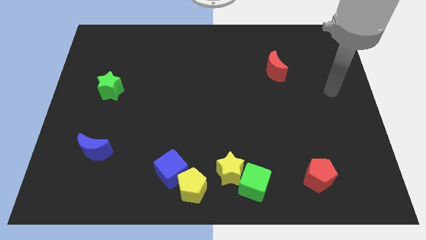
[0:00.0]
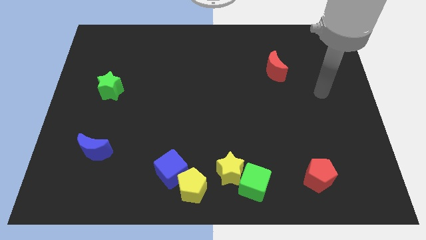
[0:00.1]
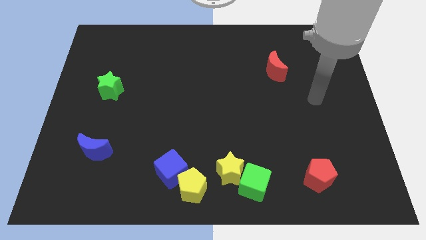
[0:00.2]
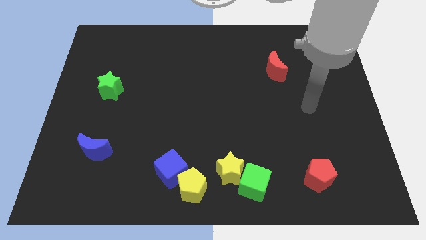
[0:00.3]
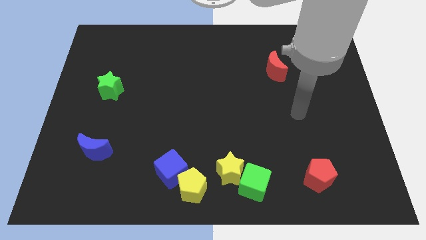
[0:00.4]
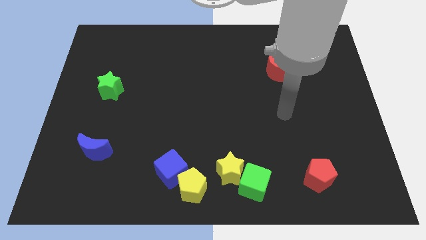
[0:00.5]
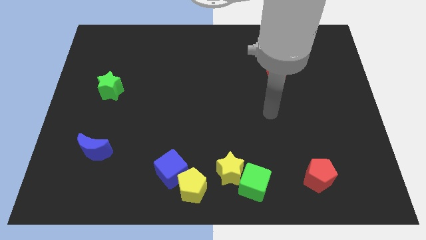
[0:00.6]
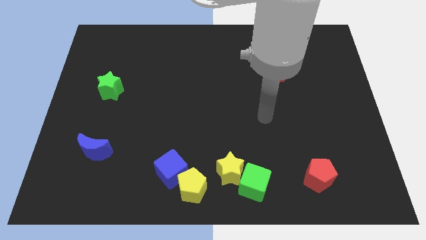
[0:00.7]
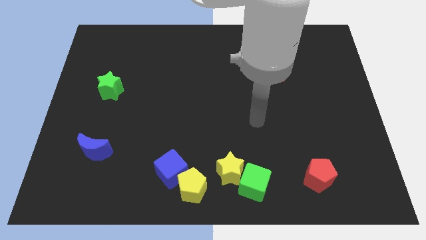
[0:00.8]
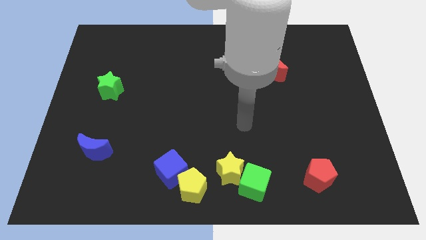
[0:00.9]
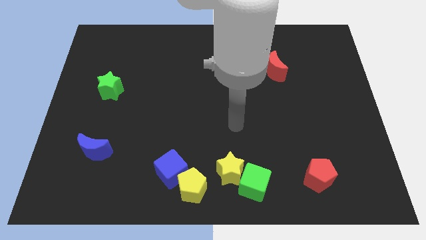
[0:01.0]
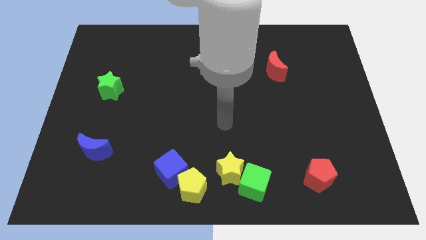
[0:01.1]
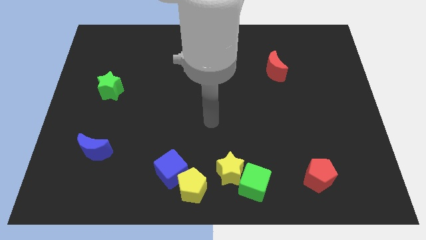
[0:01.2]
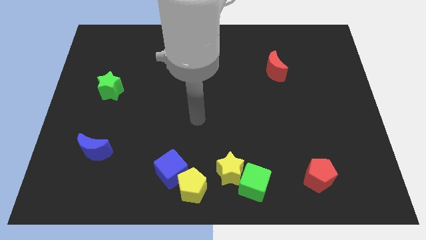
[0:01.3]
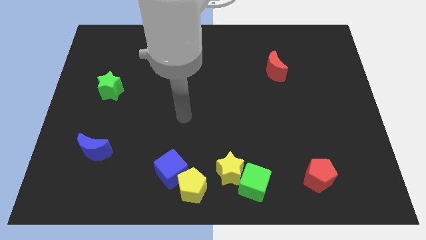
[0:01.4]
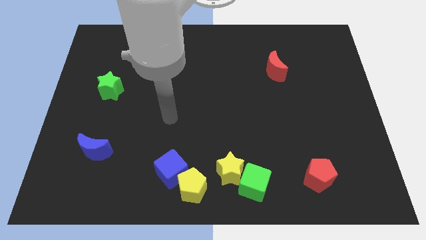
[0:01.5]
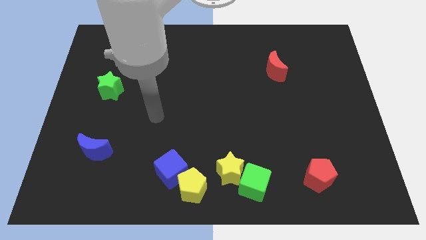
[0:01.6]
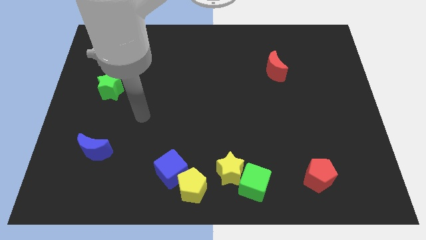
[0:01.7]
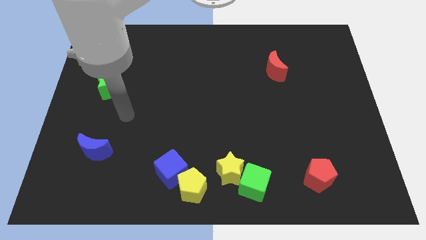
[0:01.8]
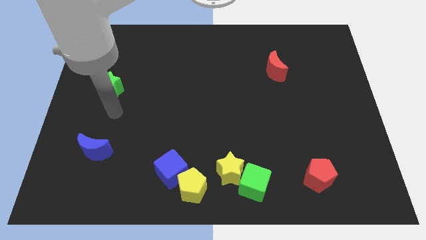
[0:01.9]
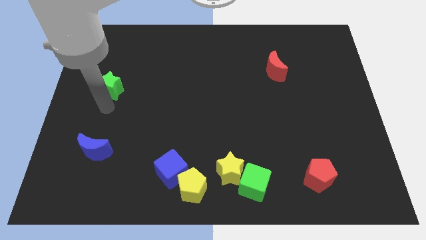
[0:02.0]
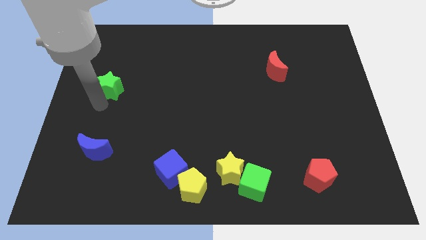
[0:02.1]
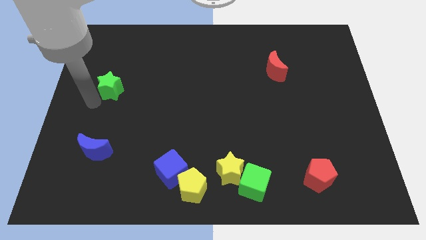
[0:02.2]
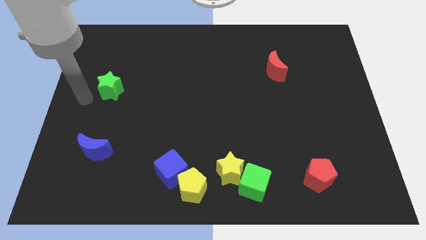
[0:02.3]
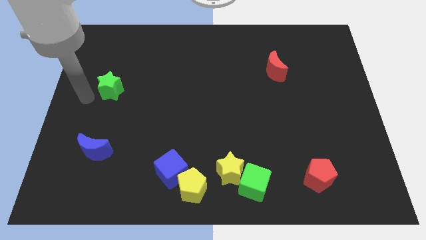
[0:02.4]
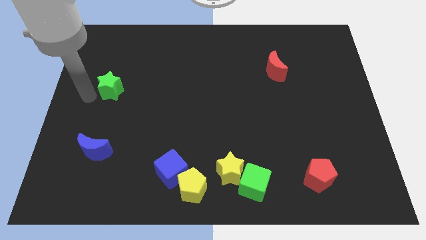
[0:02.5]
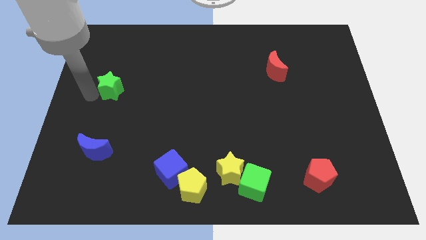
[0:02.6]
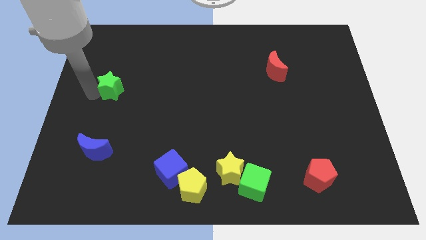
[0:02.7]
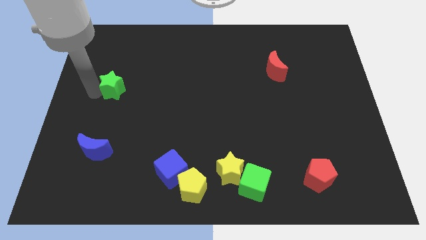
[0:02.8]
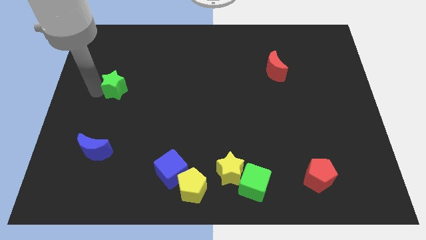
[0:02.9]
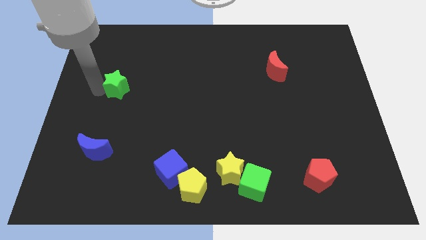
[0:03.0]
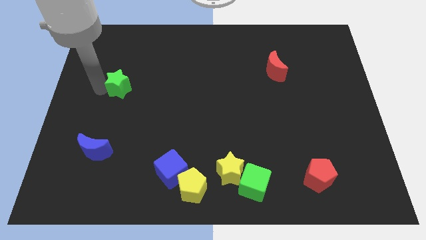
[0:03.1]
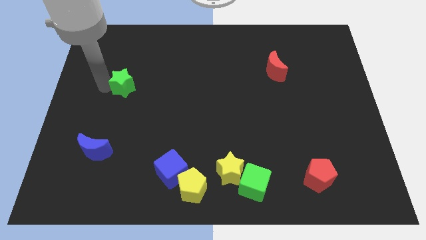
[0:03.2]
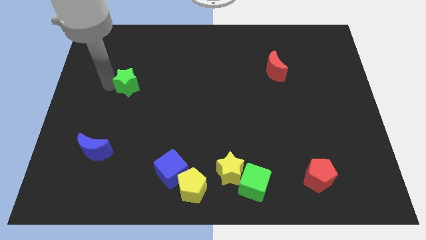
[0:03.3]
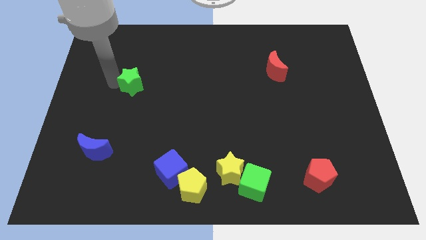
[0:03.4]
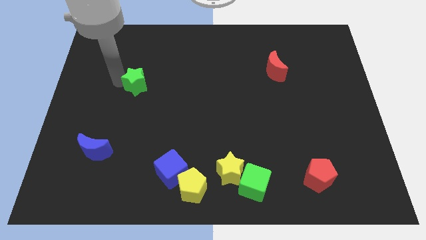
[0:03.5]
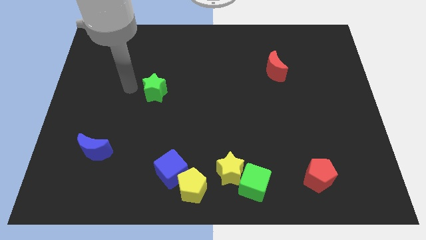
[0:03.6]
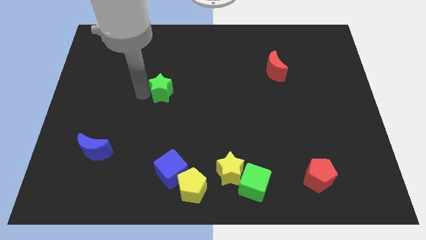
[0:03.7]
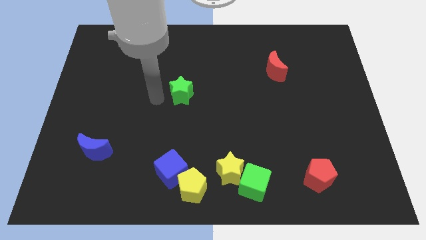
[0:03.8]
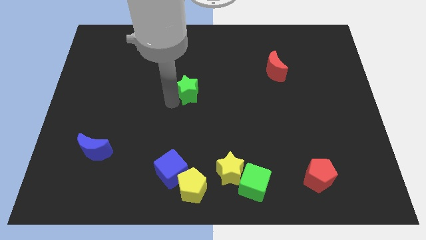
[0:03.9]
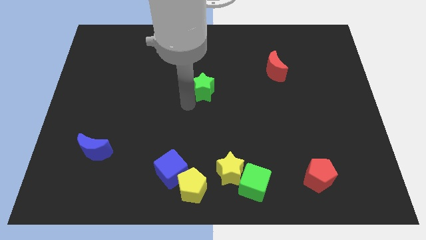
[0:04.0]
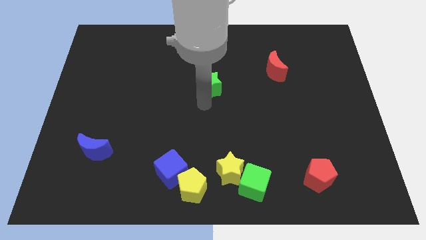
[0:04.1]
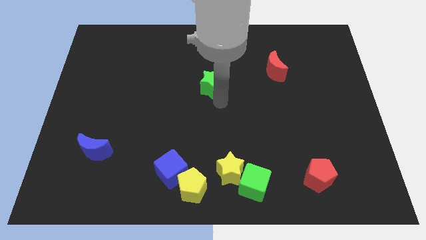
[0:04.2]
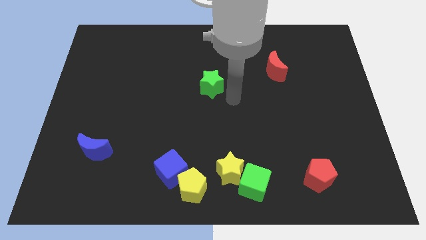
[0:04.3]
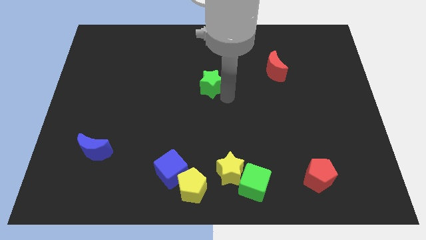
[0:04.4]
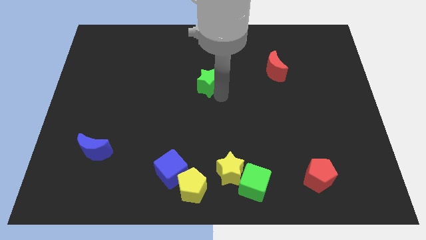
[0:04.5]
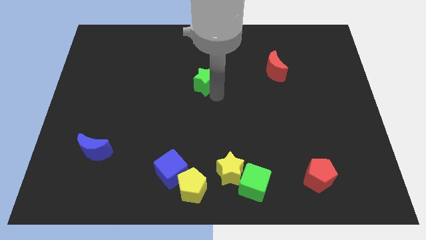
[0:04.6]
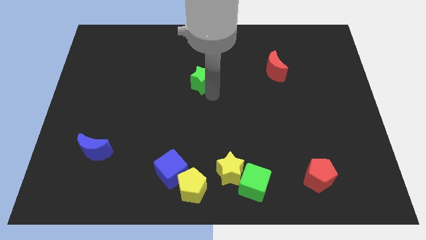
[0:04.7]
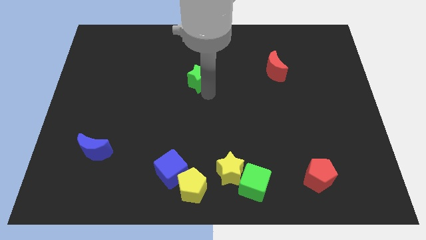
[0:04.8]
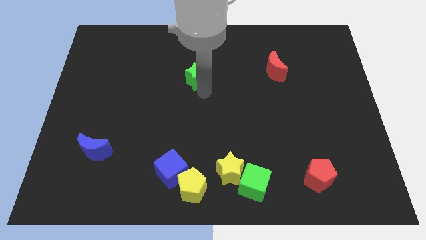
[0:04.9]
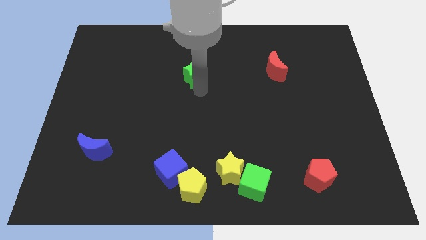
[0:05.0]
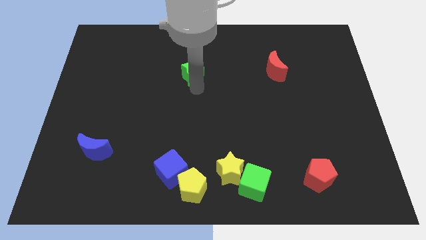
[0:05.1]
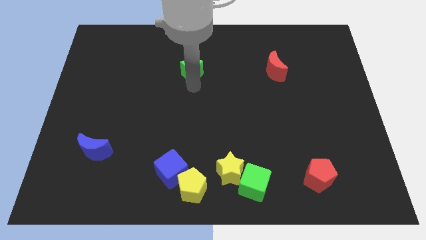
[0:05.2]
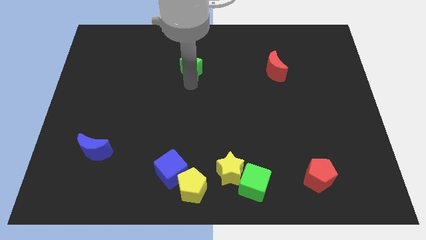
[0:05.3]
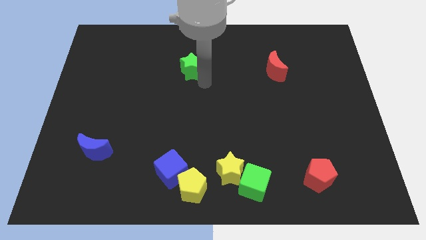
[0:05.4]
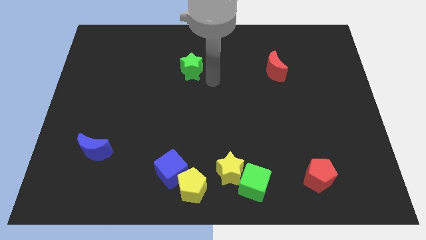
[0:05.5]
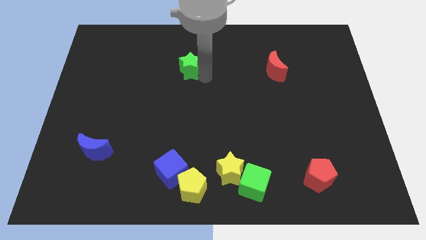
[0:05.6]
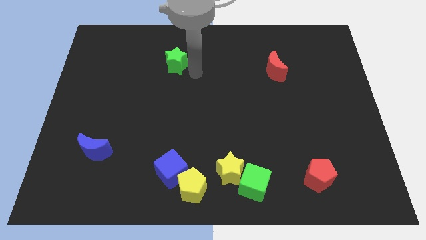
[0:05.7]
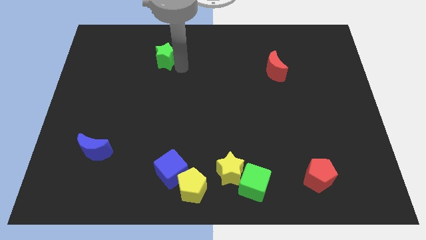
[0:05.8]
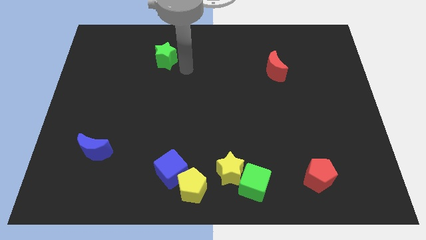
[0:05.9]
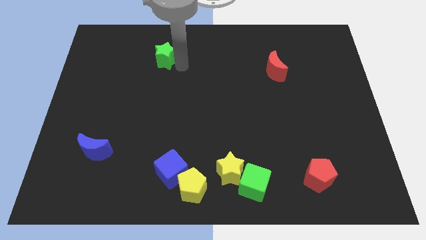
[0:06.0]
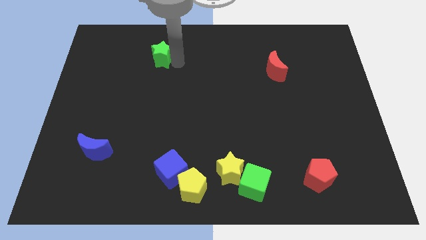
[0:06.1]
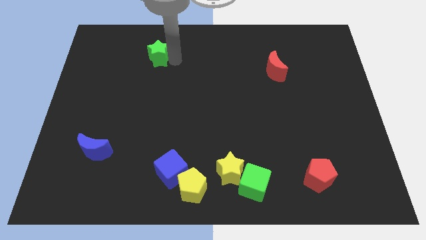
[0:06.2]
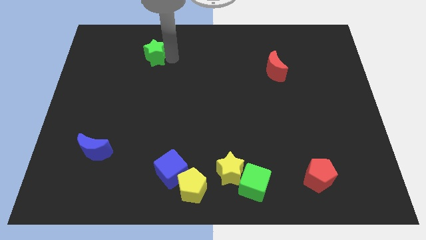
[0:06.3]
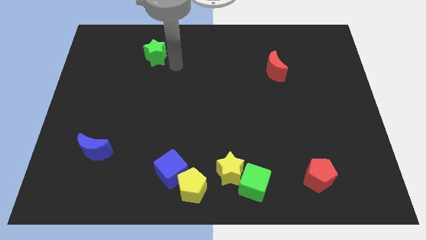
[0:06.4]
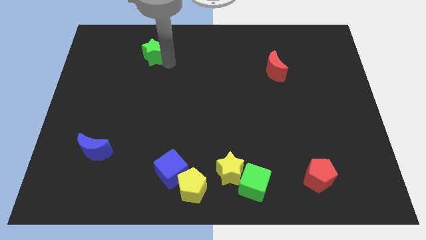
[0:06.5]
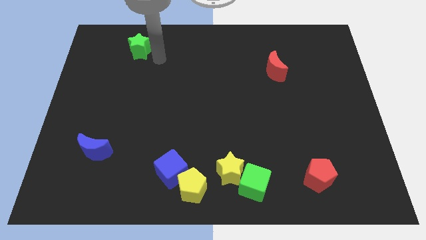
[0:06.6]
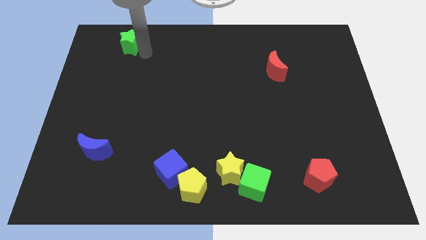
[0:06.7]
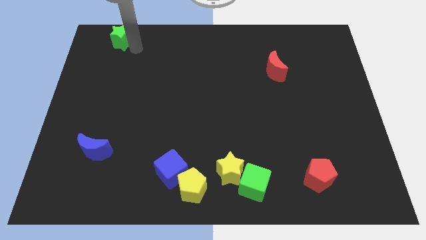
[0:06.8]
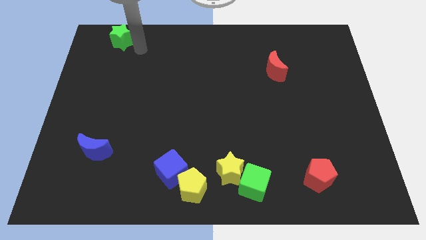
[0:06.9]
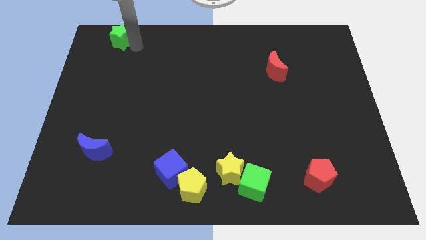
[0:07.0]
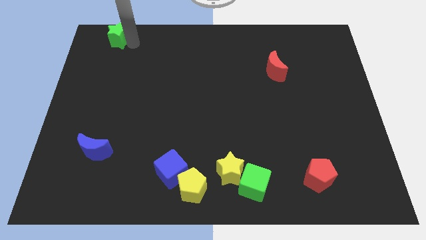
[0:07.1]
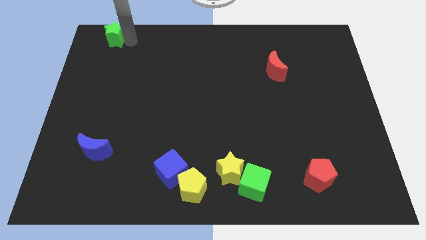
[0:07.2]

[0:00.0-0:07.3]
put the green star to the upper left corner

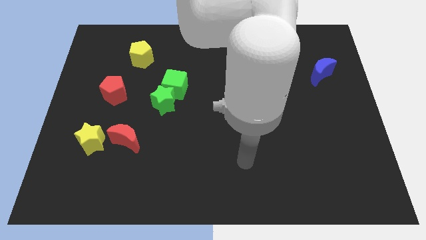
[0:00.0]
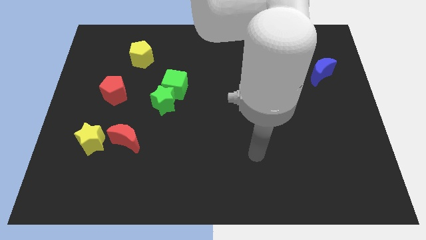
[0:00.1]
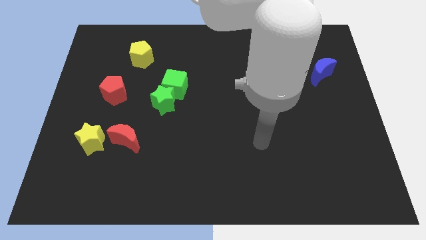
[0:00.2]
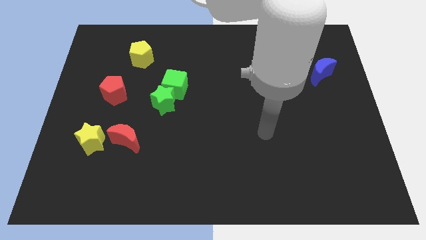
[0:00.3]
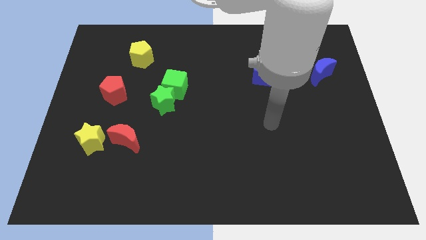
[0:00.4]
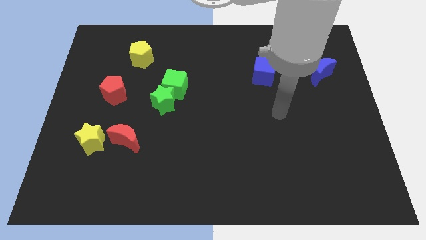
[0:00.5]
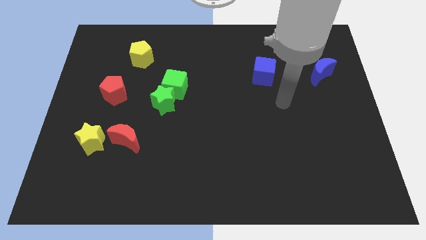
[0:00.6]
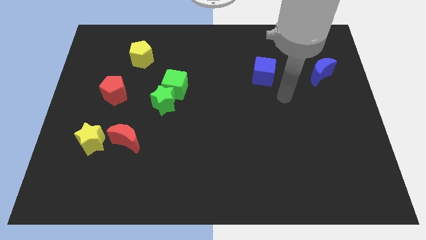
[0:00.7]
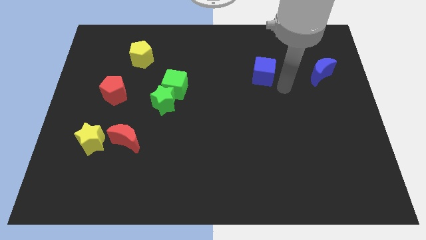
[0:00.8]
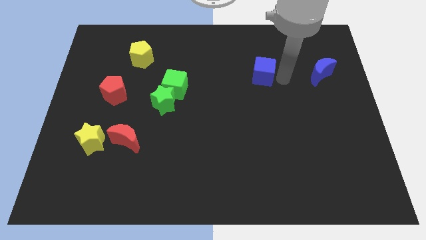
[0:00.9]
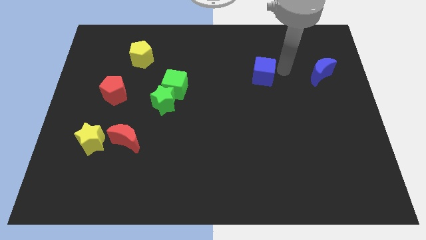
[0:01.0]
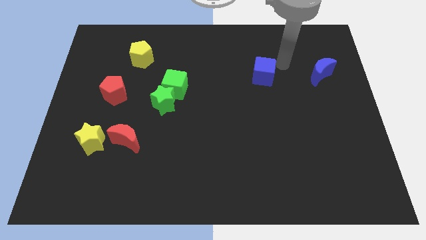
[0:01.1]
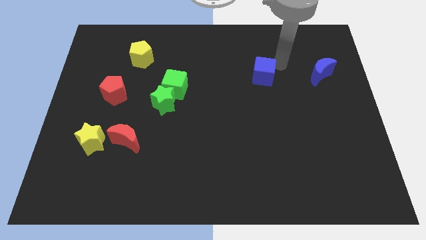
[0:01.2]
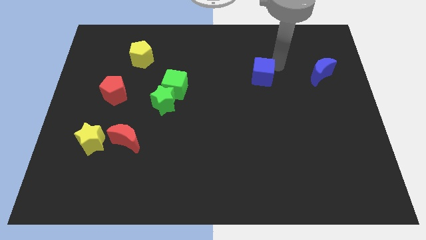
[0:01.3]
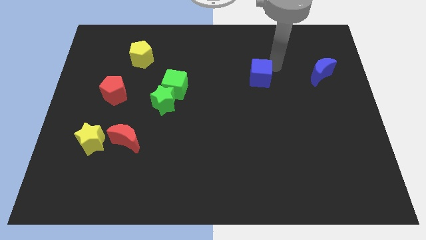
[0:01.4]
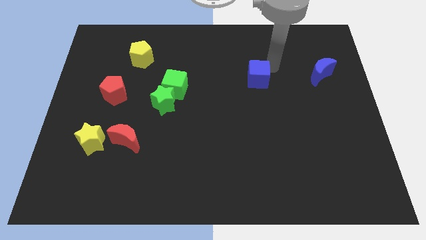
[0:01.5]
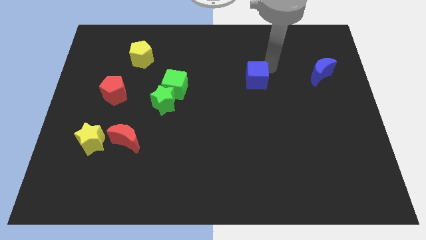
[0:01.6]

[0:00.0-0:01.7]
put the blue cube to the center of the board
